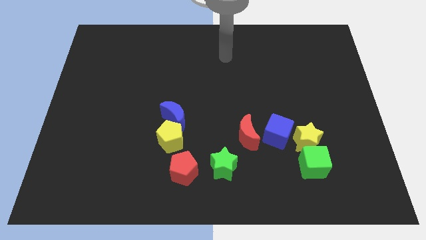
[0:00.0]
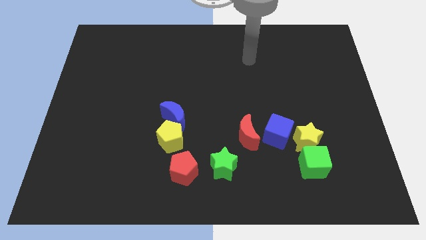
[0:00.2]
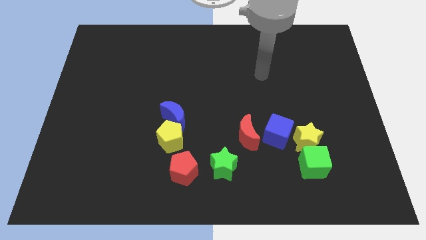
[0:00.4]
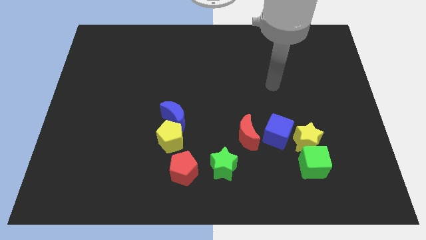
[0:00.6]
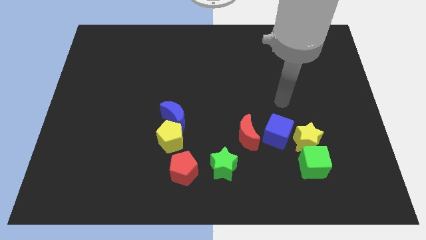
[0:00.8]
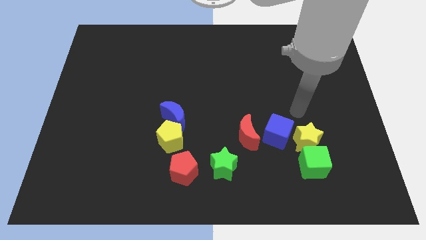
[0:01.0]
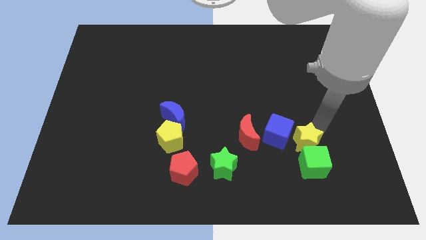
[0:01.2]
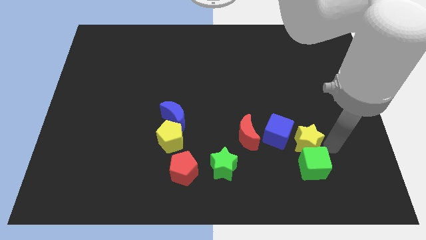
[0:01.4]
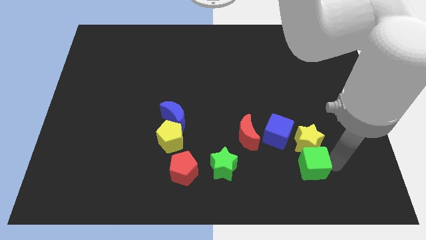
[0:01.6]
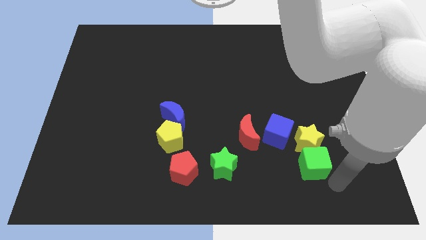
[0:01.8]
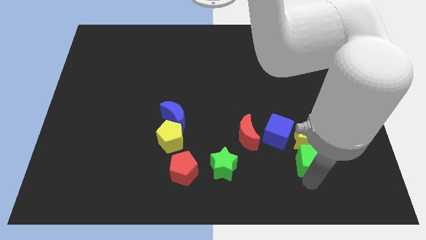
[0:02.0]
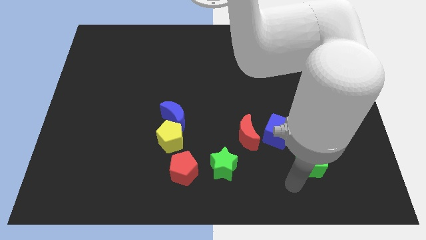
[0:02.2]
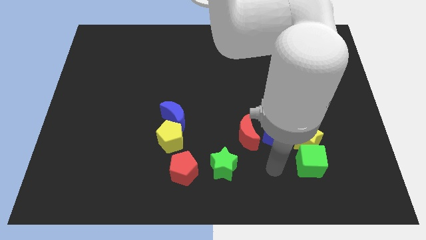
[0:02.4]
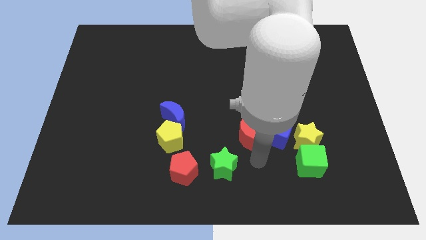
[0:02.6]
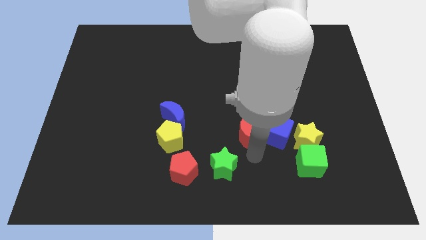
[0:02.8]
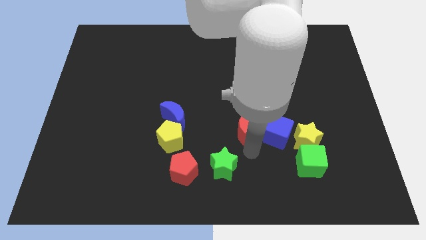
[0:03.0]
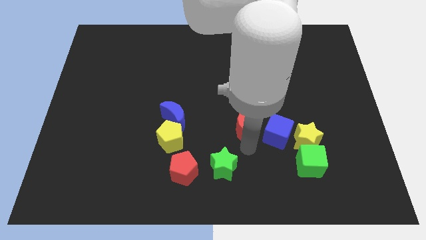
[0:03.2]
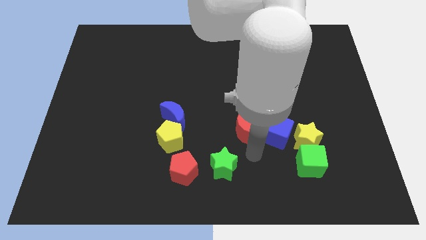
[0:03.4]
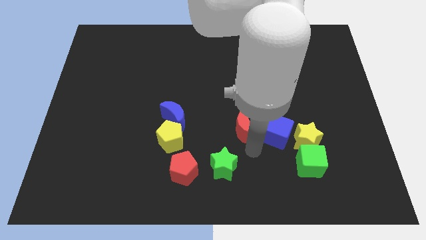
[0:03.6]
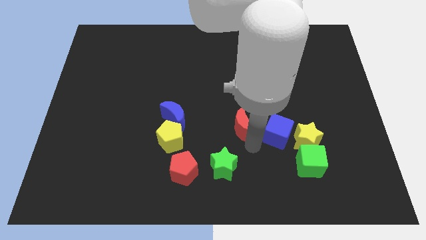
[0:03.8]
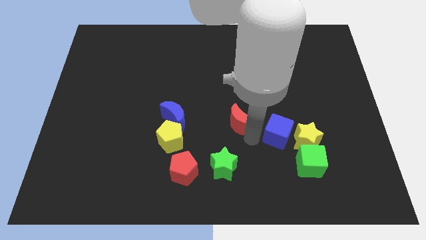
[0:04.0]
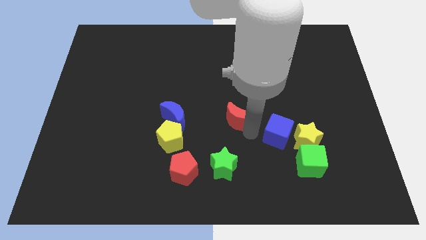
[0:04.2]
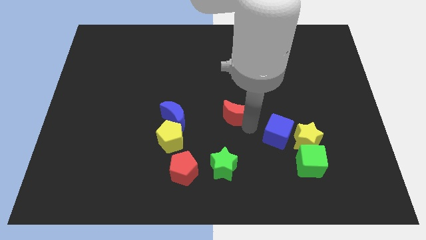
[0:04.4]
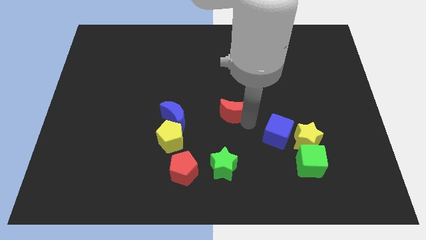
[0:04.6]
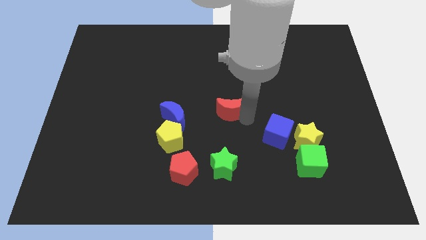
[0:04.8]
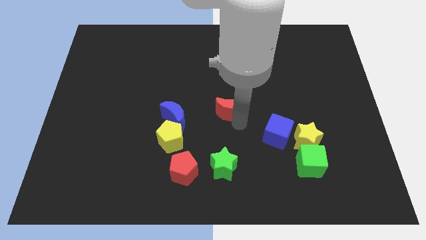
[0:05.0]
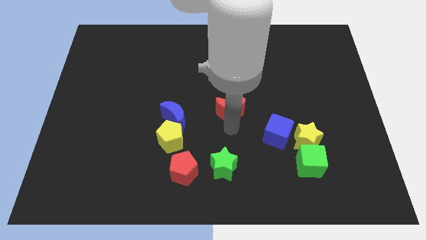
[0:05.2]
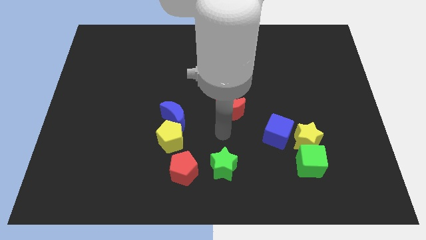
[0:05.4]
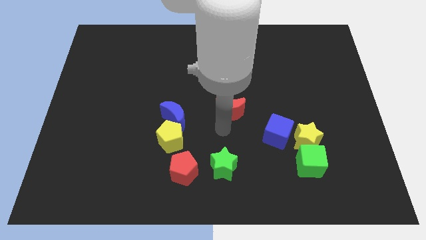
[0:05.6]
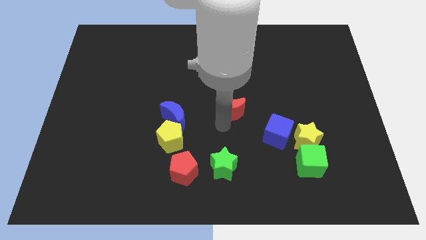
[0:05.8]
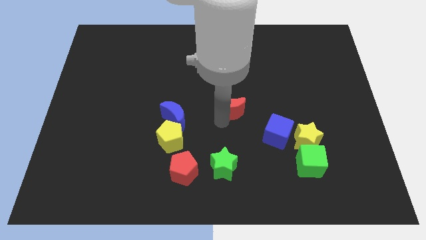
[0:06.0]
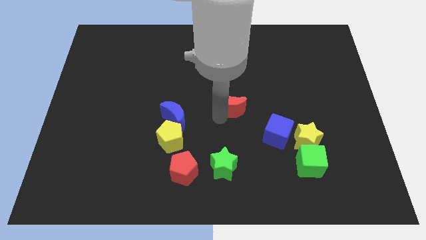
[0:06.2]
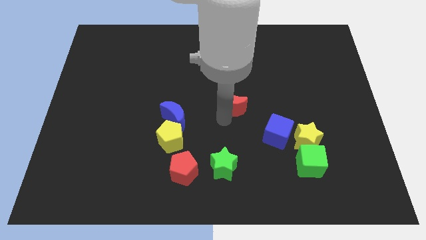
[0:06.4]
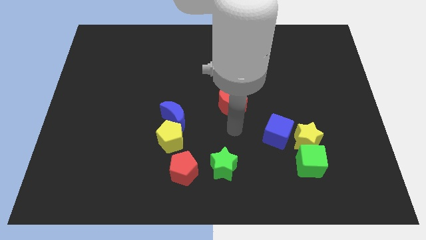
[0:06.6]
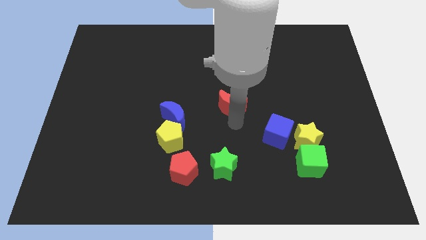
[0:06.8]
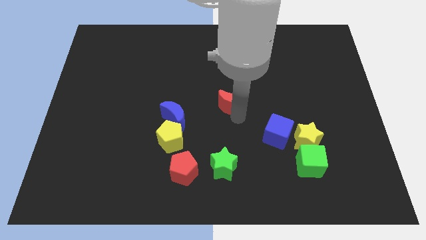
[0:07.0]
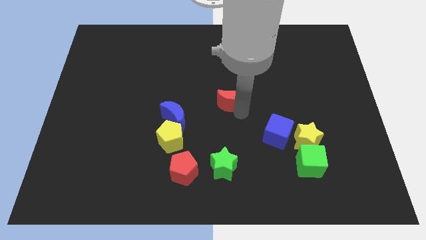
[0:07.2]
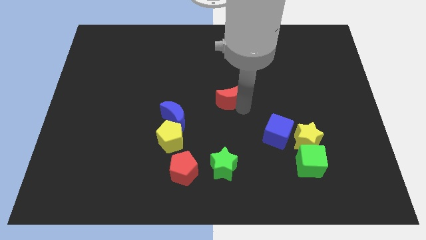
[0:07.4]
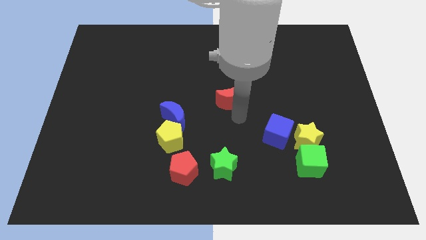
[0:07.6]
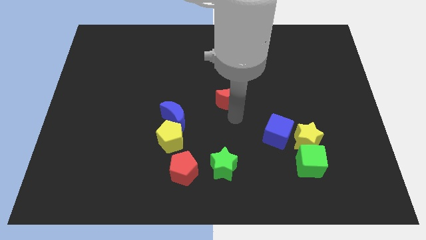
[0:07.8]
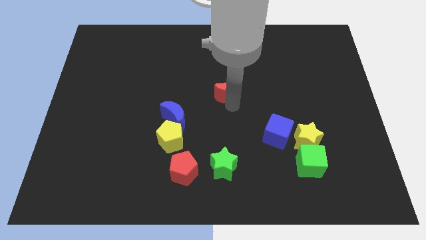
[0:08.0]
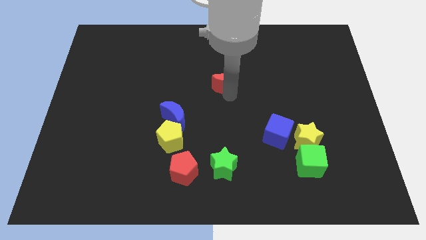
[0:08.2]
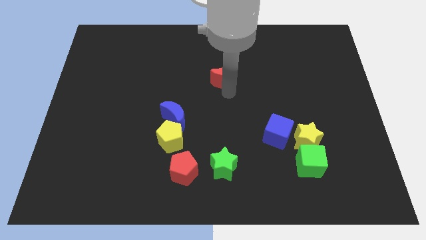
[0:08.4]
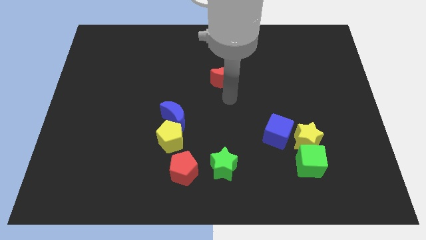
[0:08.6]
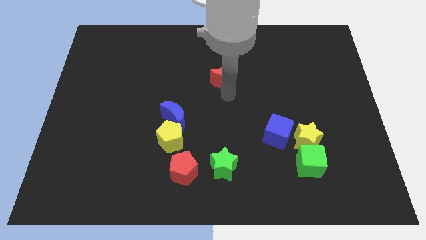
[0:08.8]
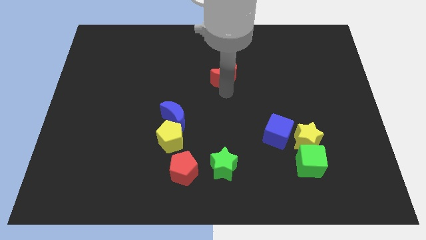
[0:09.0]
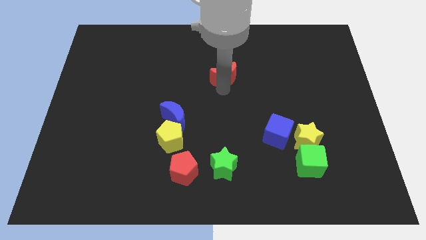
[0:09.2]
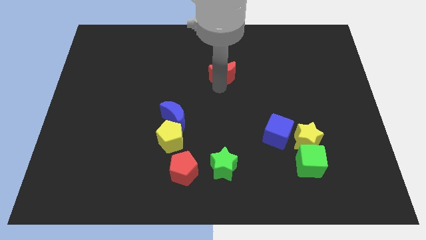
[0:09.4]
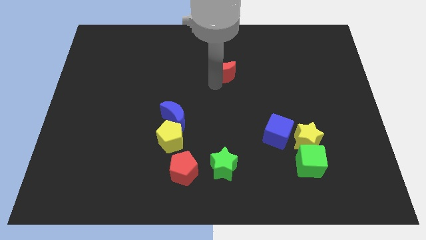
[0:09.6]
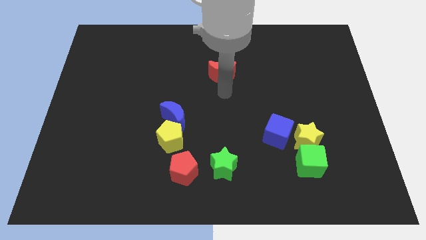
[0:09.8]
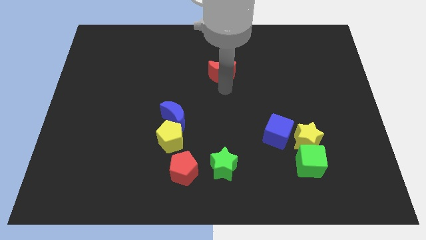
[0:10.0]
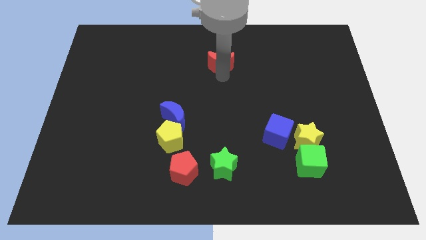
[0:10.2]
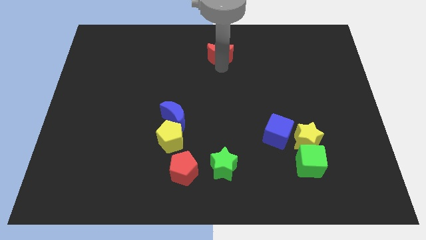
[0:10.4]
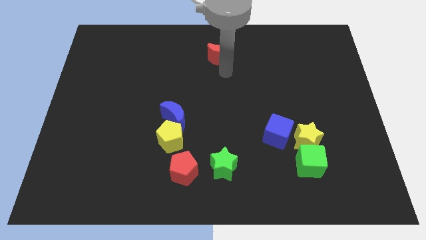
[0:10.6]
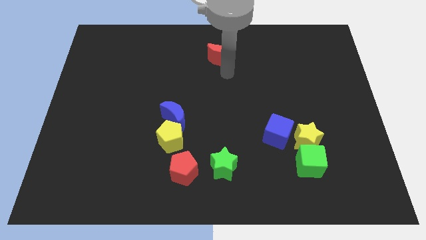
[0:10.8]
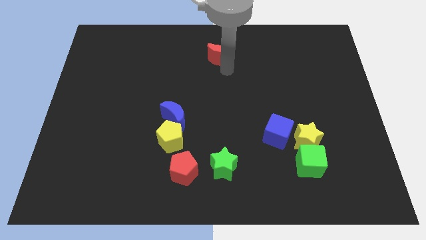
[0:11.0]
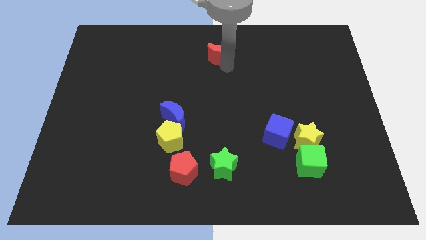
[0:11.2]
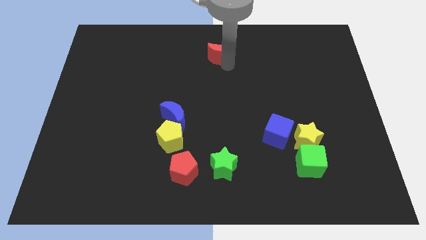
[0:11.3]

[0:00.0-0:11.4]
slide the red moon to the top
